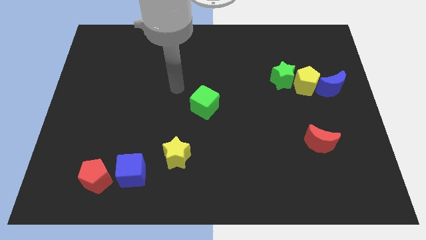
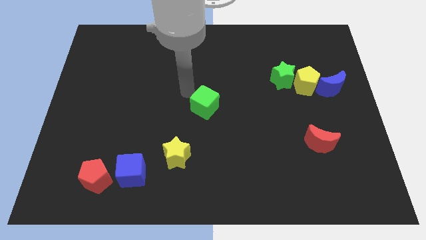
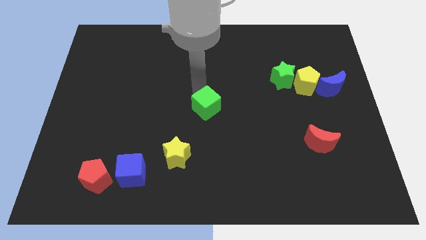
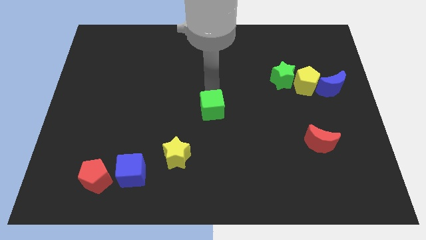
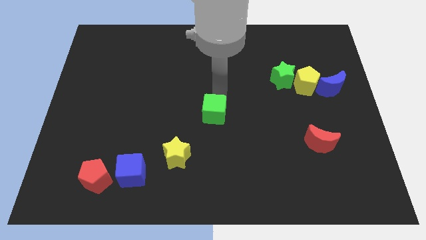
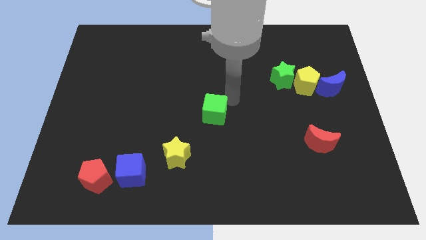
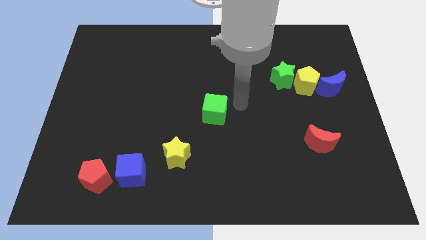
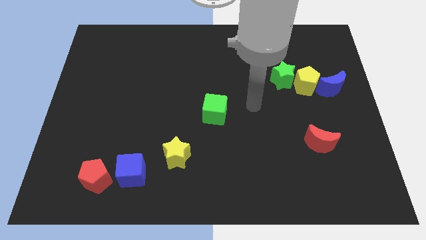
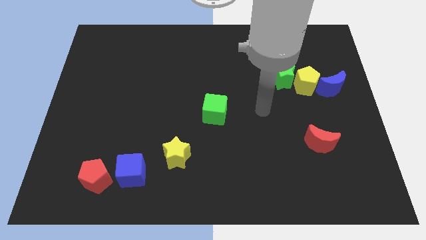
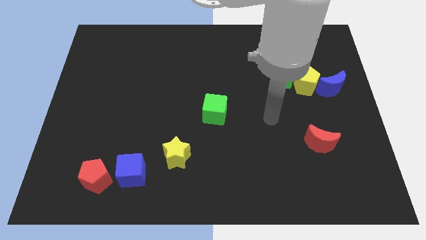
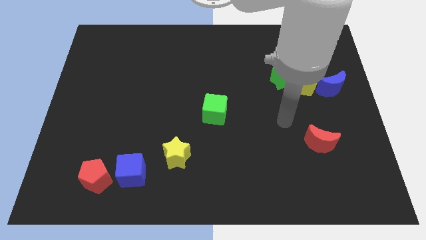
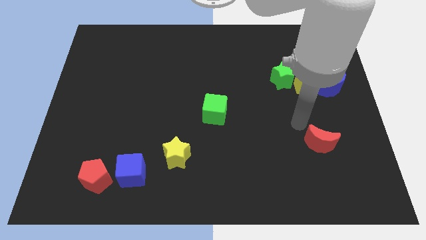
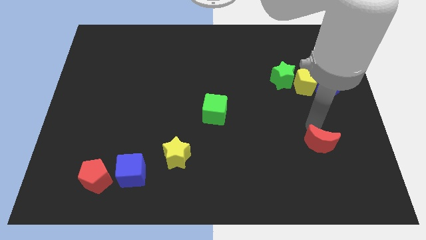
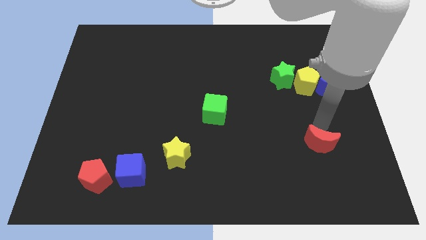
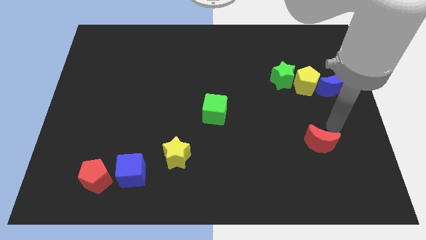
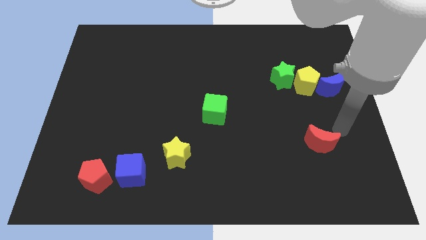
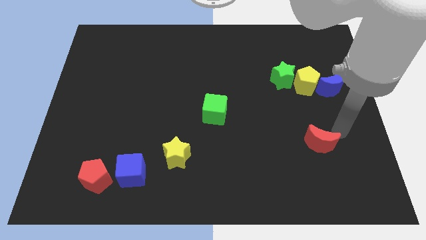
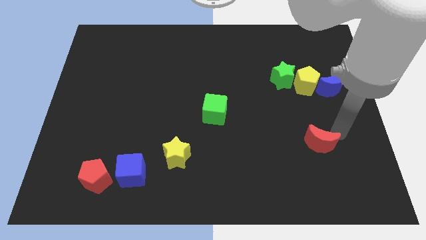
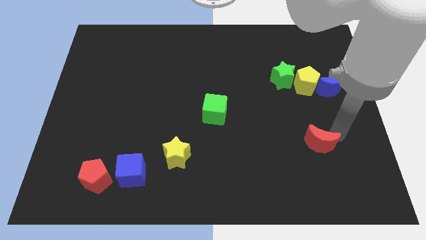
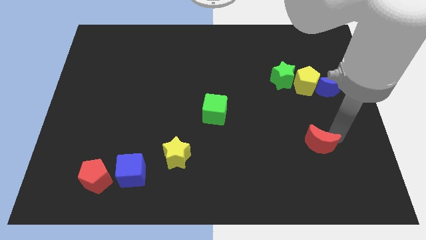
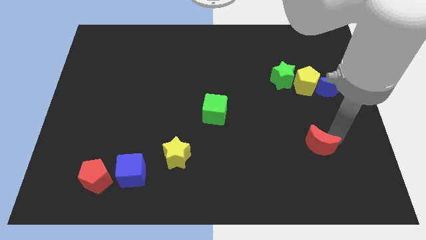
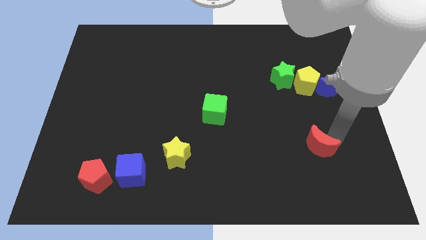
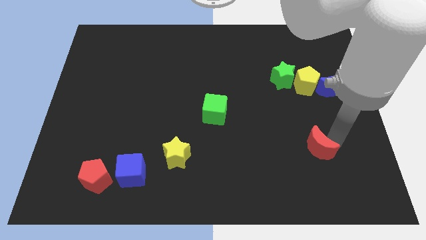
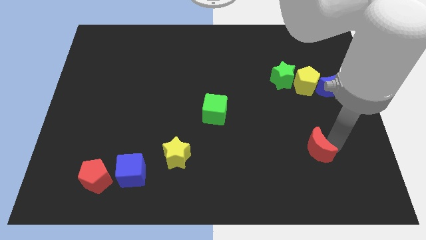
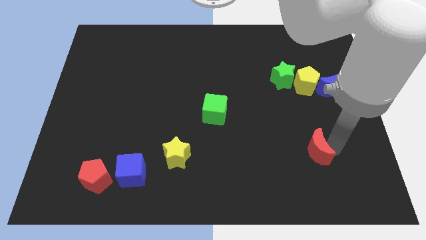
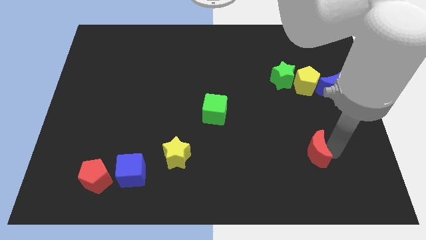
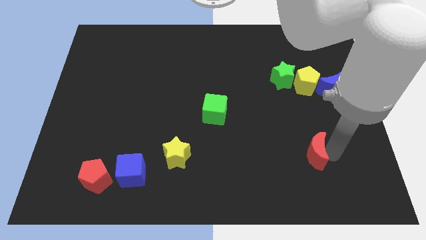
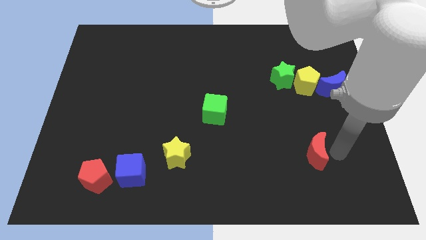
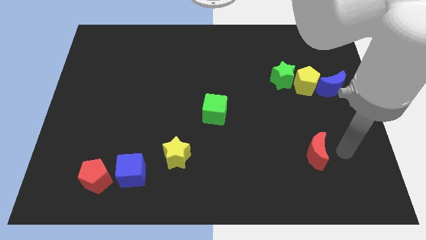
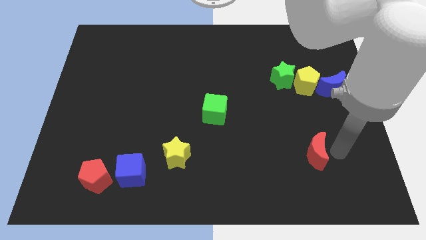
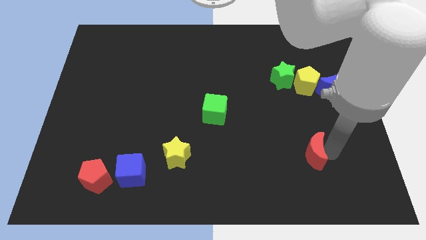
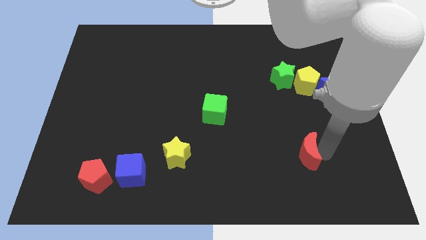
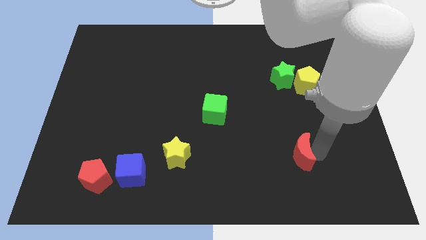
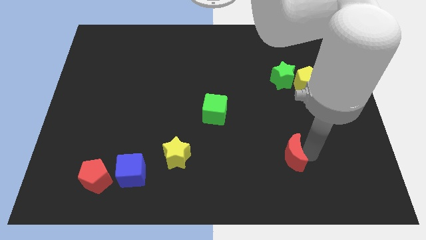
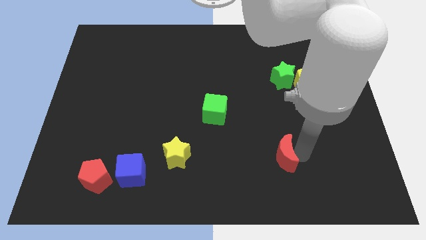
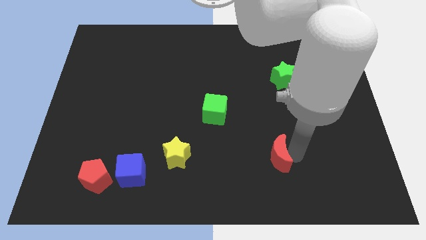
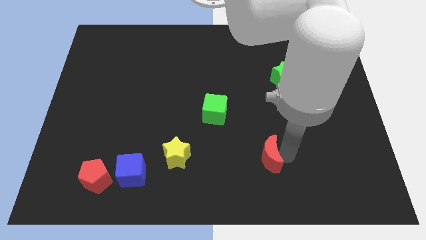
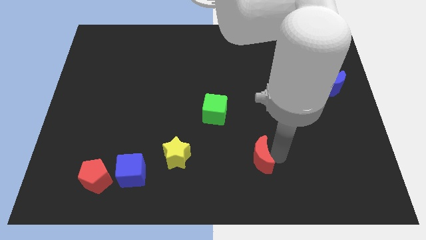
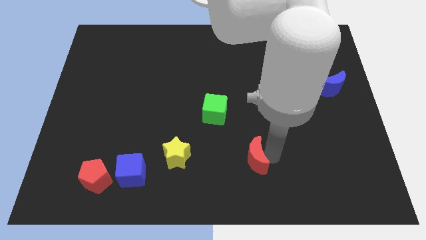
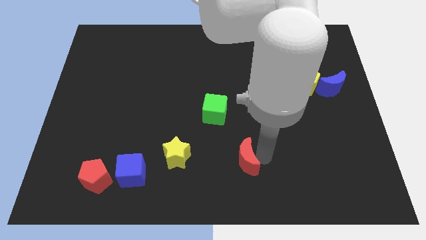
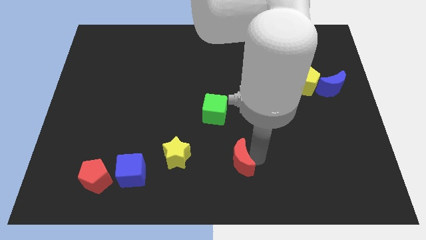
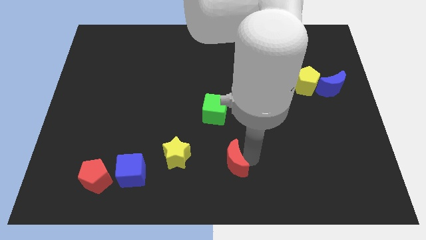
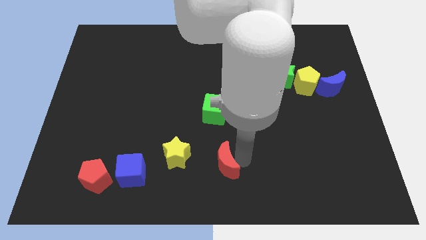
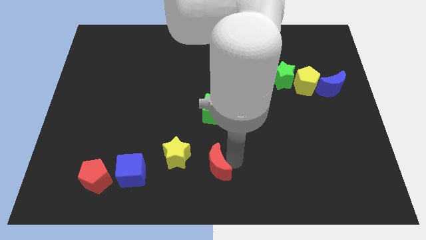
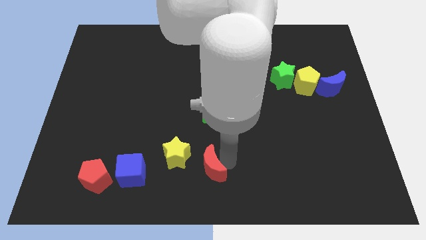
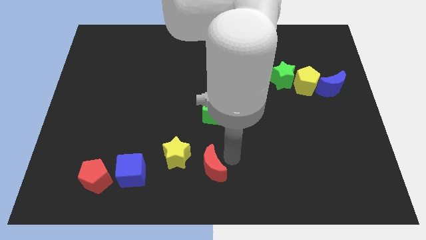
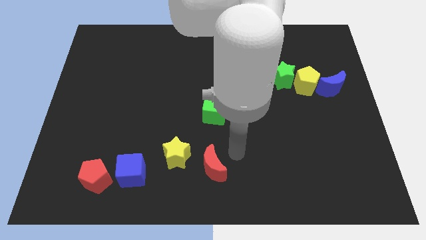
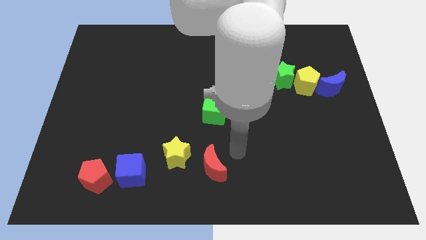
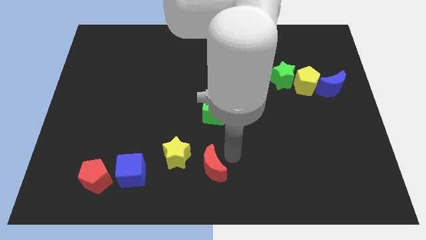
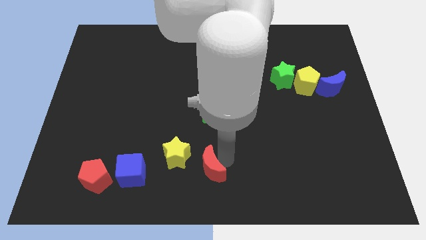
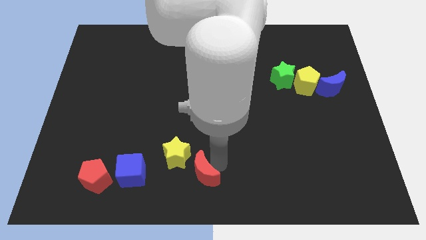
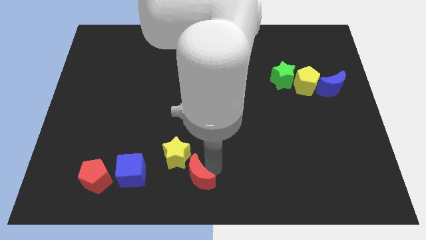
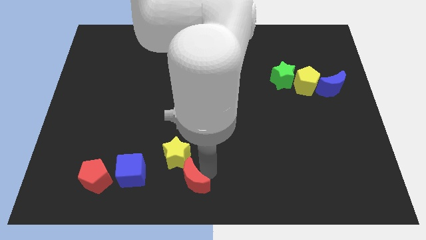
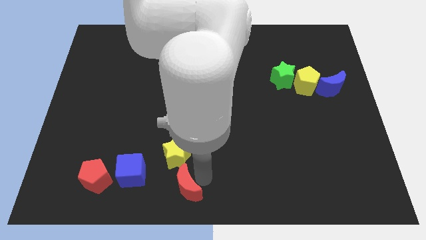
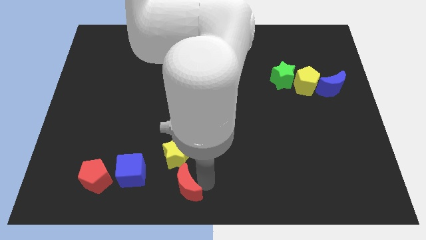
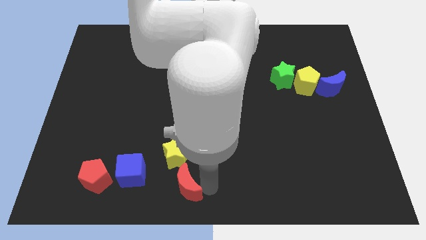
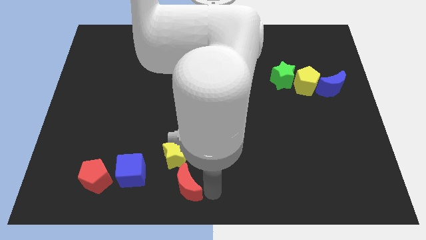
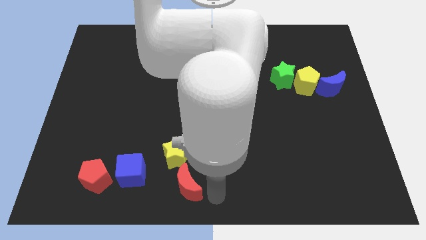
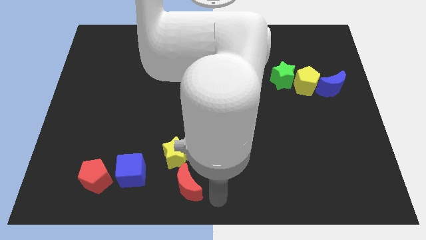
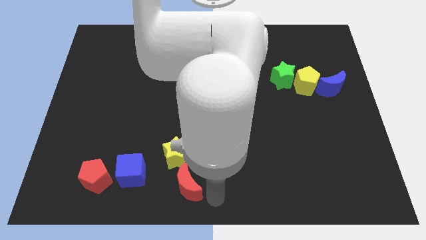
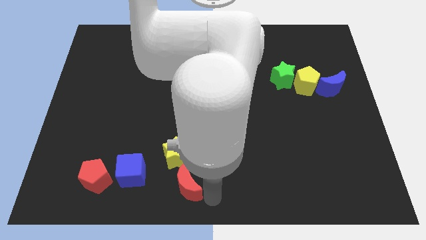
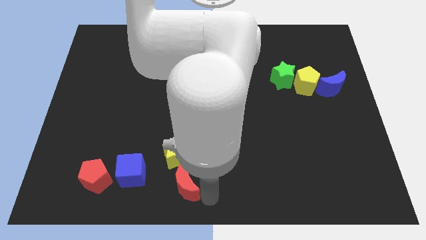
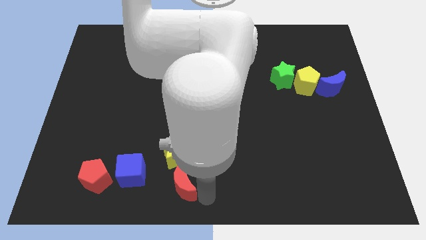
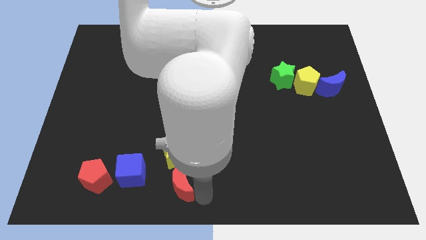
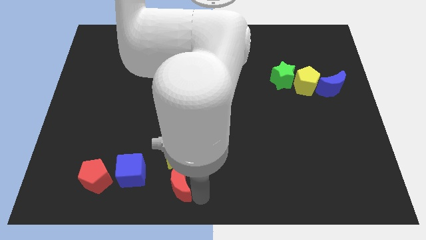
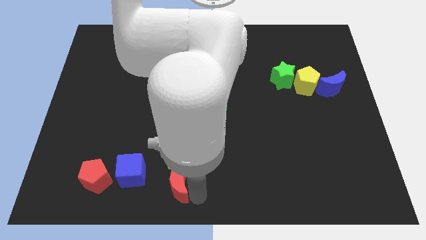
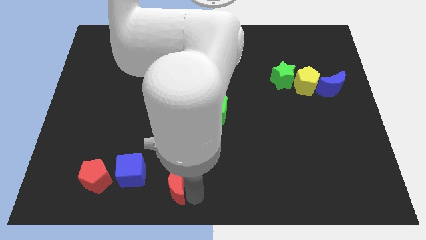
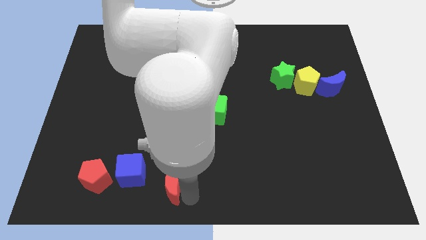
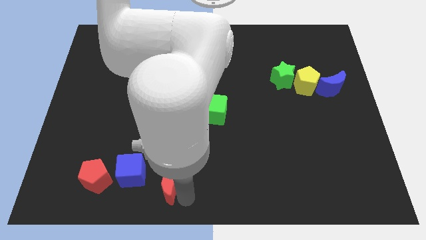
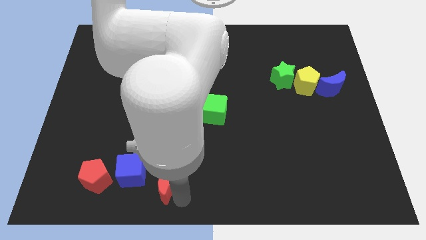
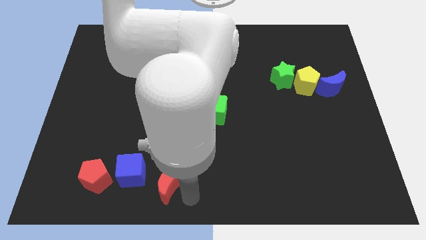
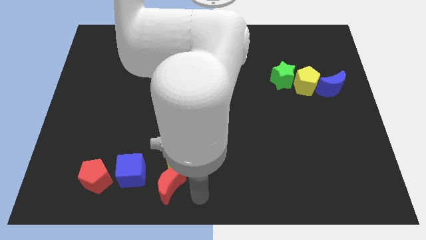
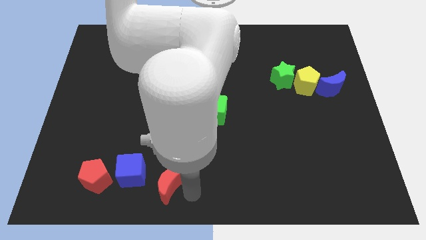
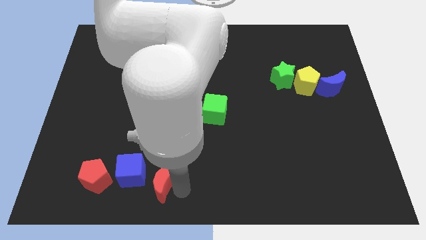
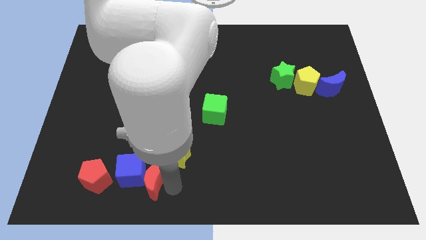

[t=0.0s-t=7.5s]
put the red moon to the blue cube
